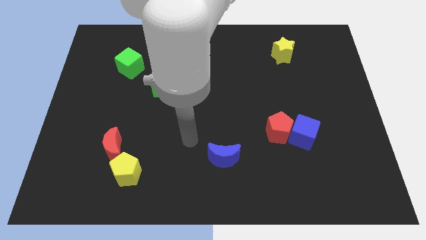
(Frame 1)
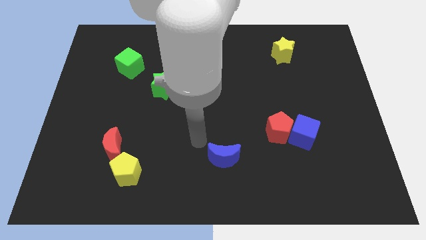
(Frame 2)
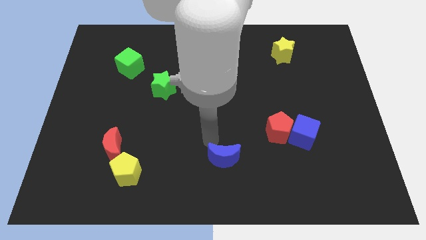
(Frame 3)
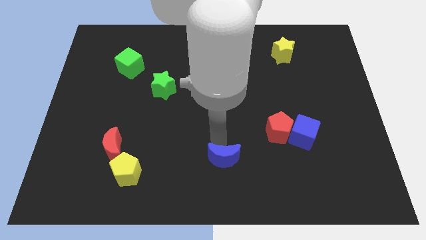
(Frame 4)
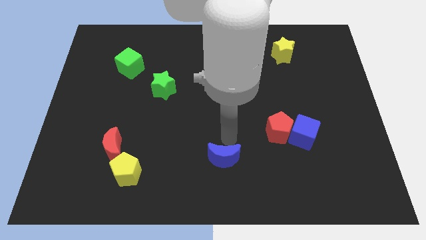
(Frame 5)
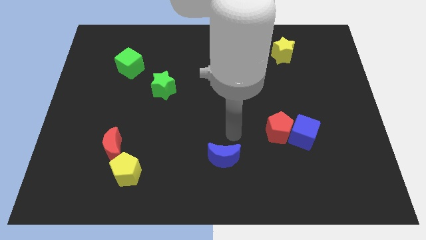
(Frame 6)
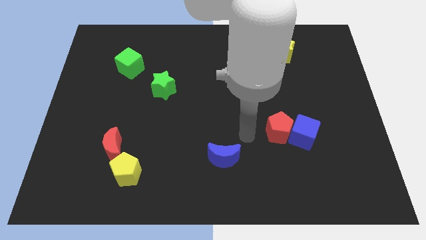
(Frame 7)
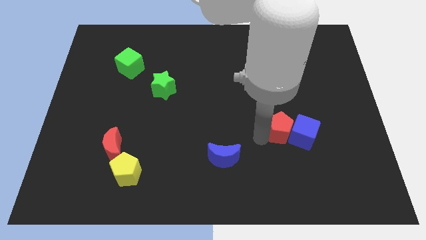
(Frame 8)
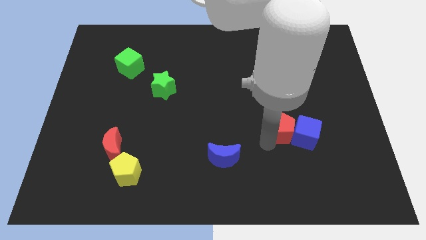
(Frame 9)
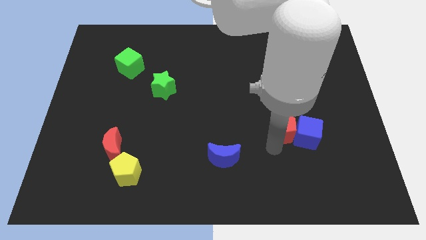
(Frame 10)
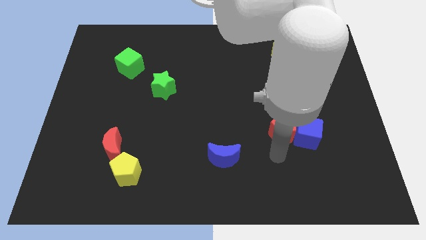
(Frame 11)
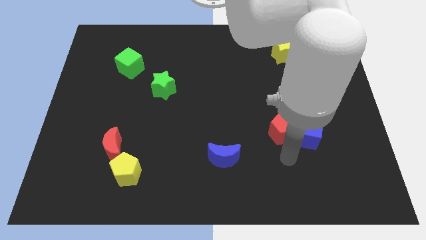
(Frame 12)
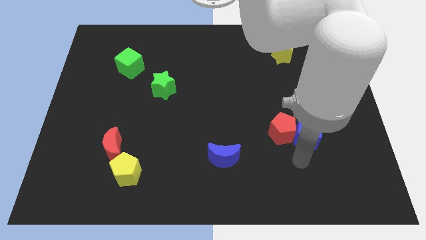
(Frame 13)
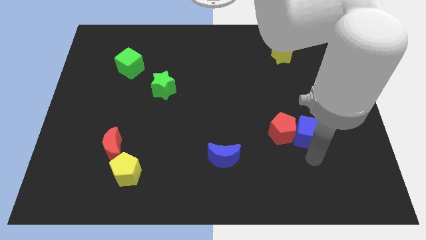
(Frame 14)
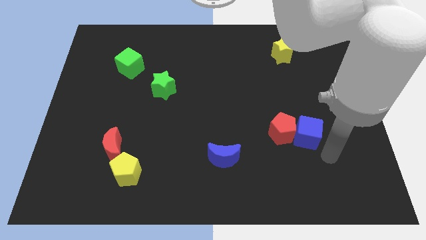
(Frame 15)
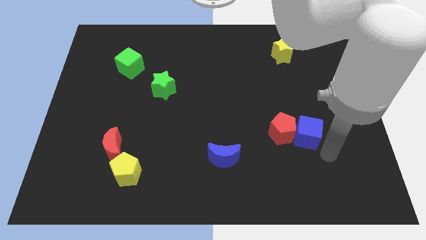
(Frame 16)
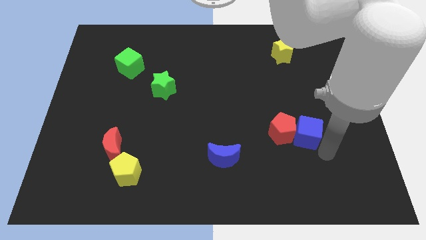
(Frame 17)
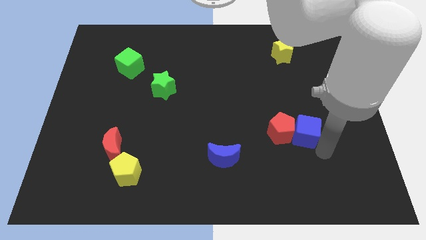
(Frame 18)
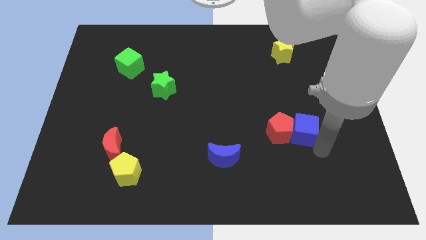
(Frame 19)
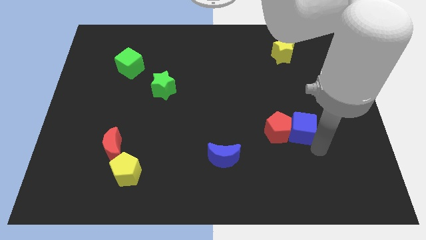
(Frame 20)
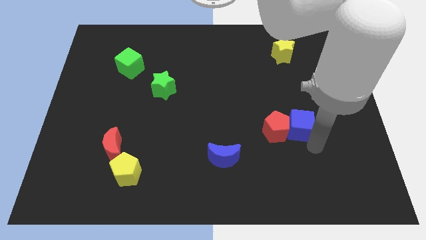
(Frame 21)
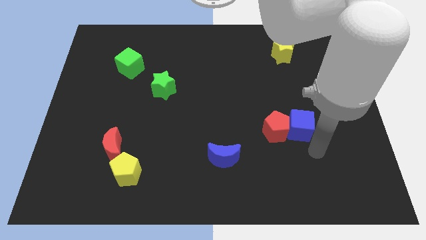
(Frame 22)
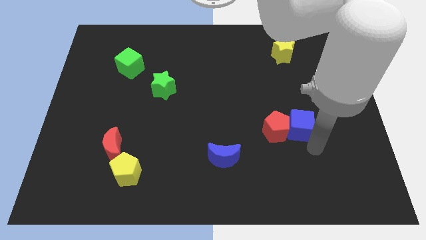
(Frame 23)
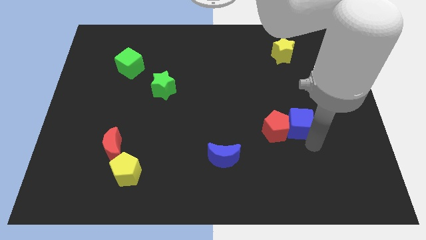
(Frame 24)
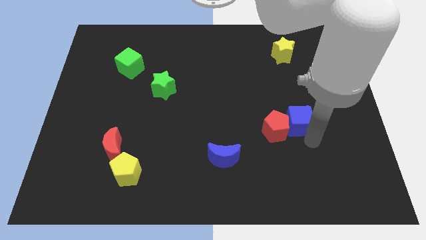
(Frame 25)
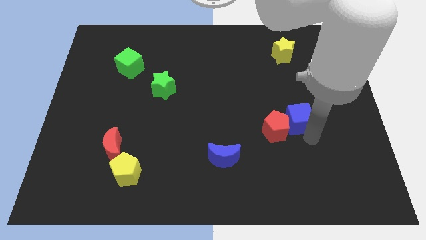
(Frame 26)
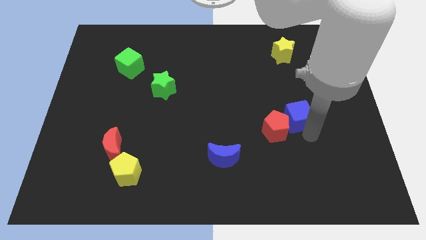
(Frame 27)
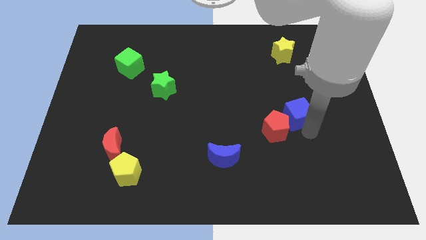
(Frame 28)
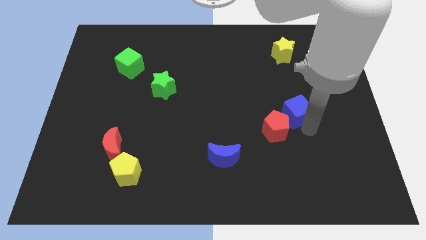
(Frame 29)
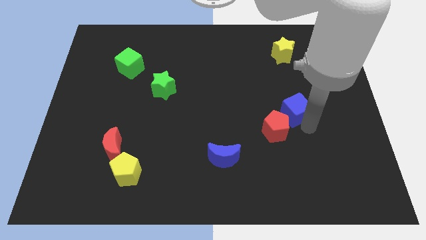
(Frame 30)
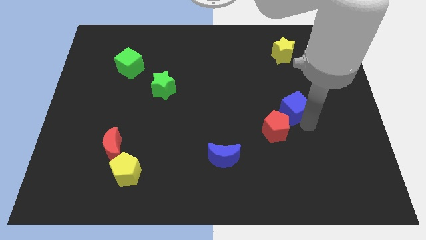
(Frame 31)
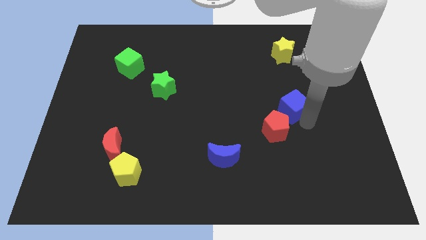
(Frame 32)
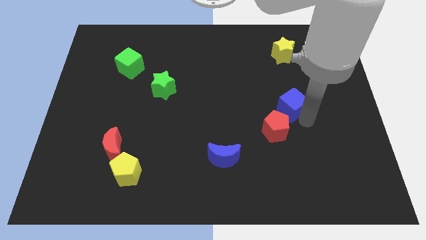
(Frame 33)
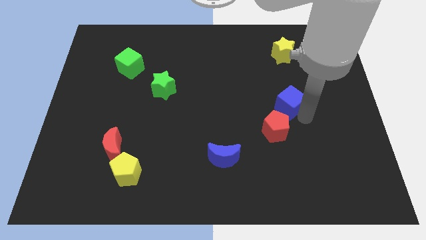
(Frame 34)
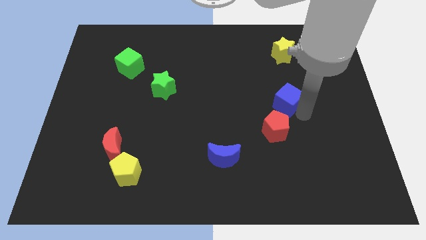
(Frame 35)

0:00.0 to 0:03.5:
move the blue cube a little upwards and to the left

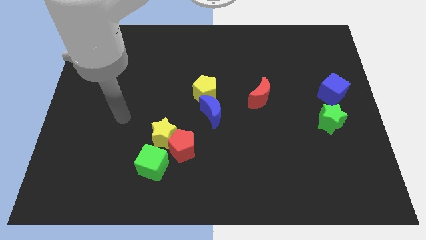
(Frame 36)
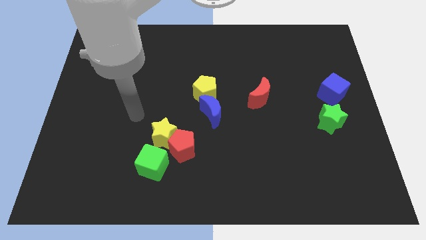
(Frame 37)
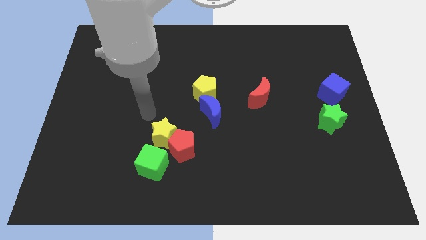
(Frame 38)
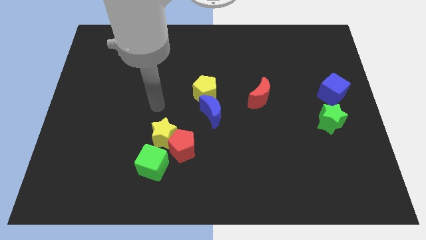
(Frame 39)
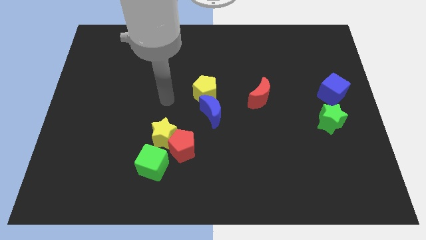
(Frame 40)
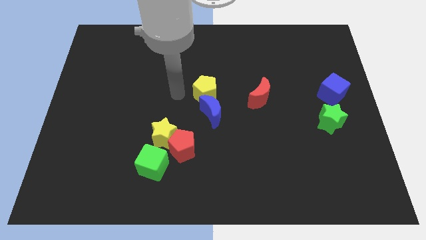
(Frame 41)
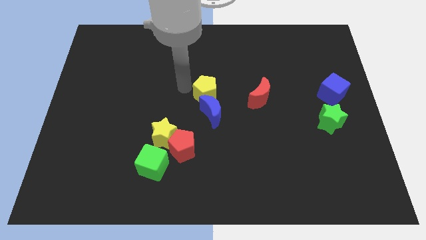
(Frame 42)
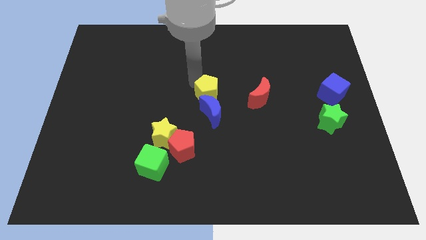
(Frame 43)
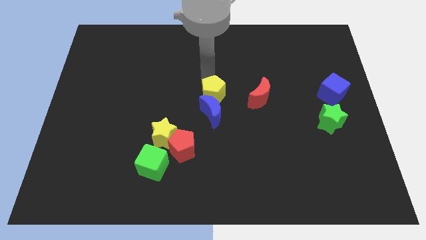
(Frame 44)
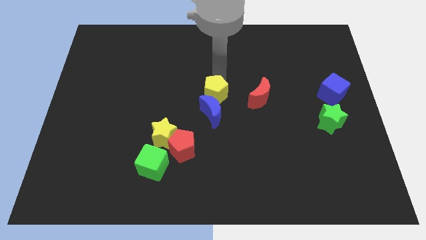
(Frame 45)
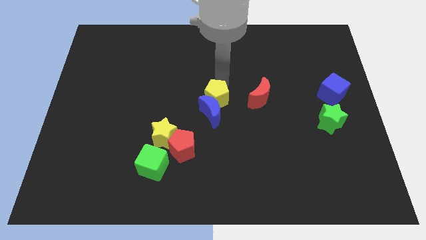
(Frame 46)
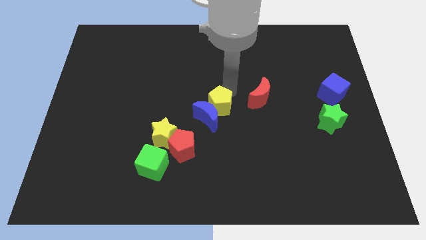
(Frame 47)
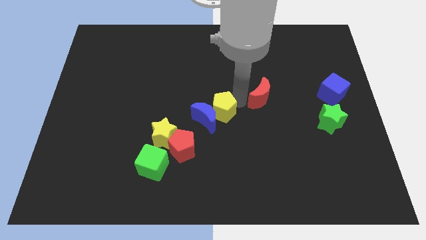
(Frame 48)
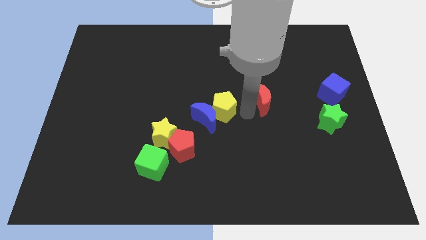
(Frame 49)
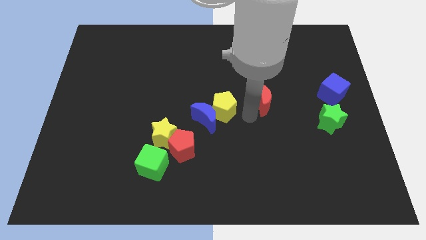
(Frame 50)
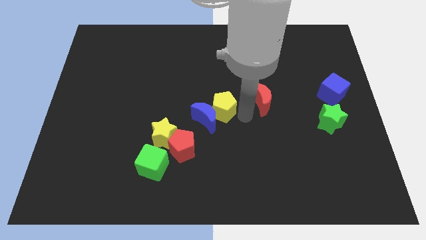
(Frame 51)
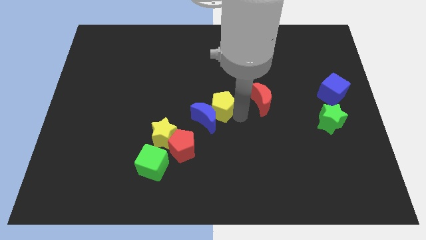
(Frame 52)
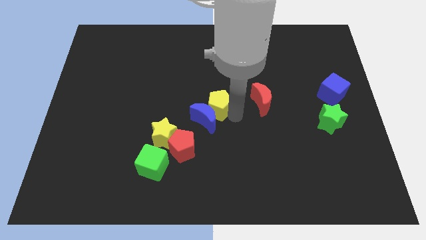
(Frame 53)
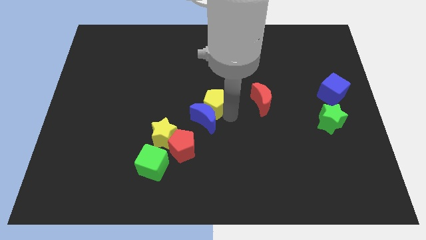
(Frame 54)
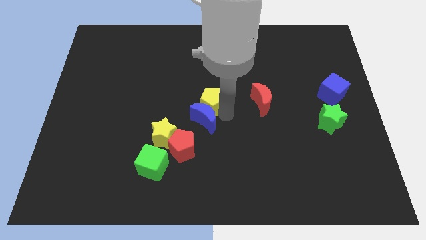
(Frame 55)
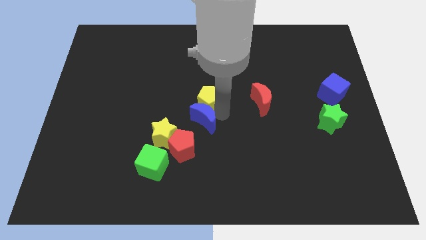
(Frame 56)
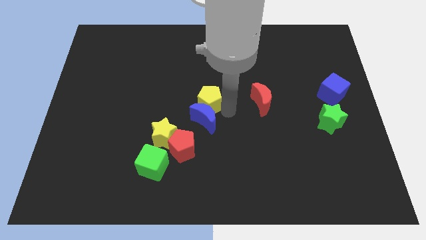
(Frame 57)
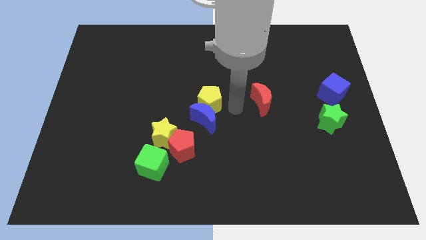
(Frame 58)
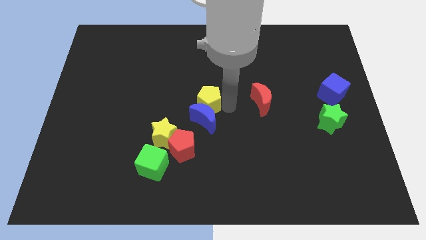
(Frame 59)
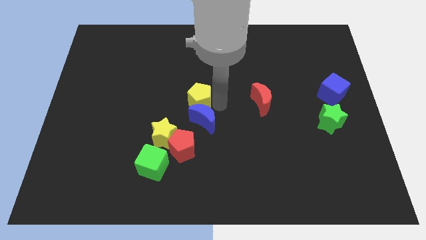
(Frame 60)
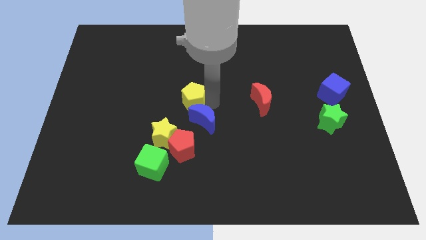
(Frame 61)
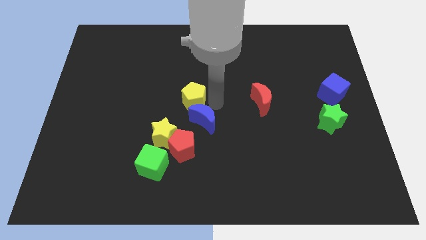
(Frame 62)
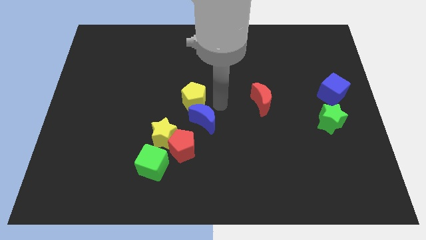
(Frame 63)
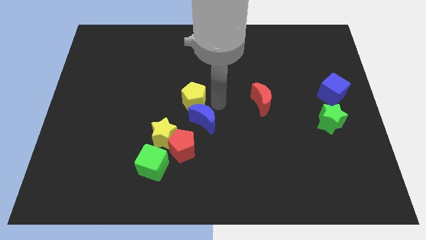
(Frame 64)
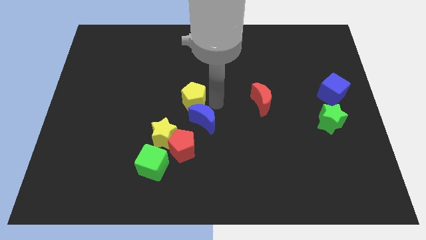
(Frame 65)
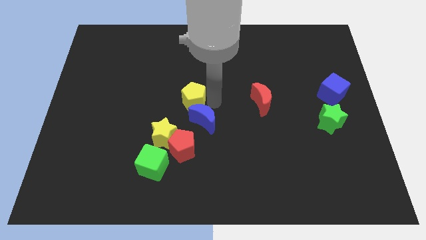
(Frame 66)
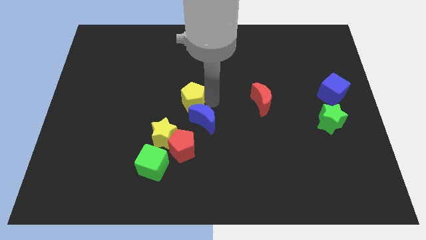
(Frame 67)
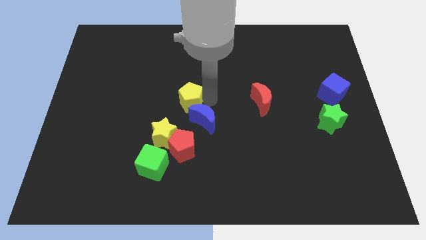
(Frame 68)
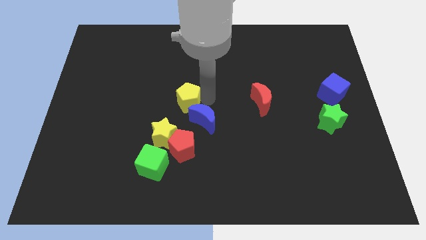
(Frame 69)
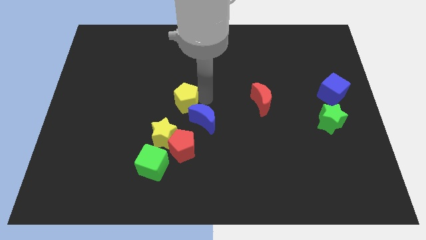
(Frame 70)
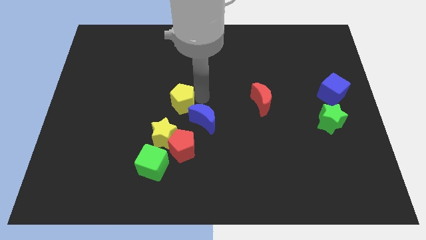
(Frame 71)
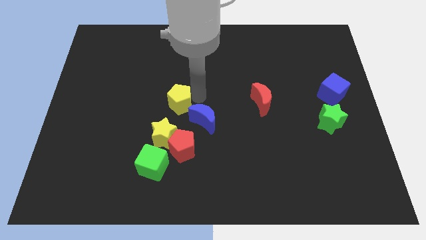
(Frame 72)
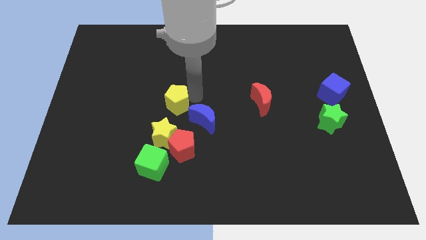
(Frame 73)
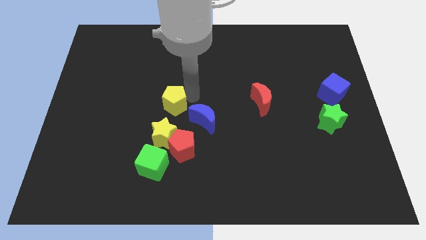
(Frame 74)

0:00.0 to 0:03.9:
push the yellow pentagon to the left a bit

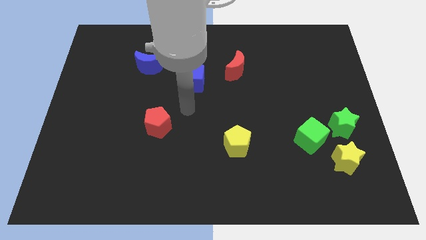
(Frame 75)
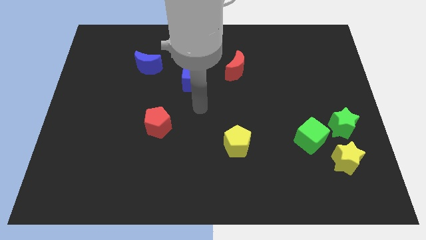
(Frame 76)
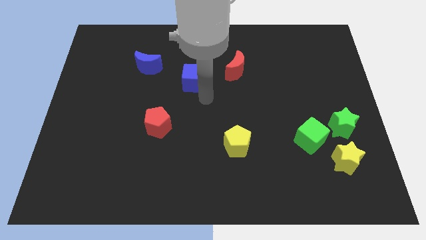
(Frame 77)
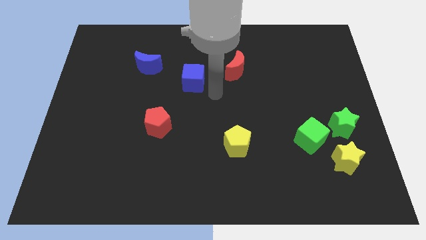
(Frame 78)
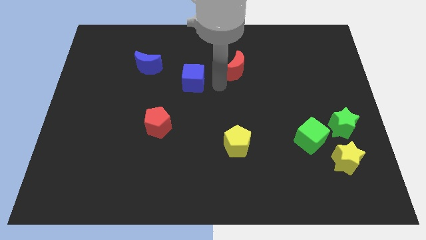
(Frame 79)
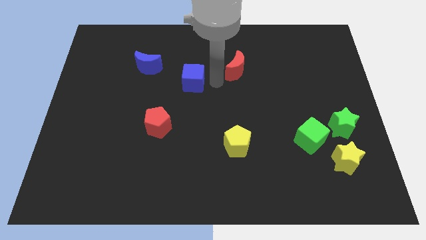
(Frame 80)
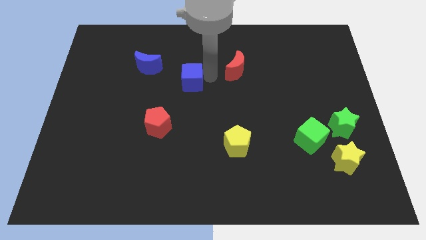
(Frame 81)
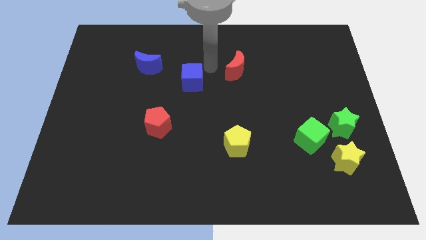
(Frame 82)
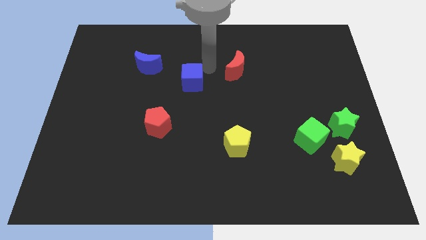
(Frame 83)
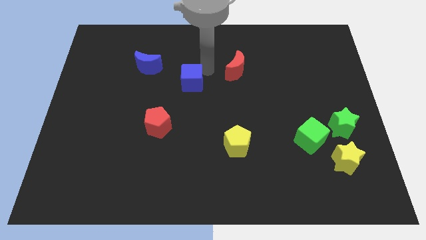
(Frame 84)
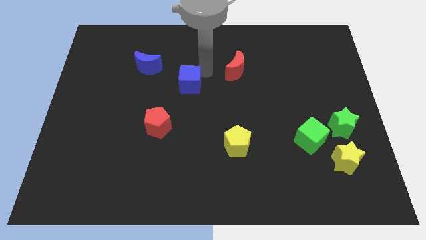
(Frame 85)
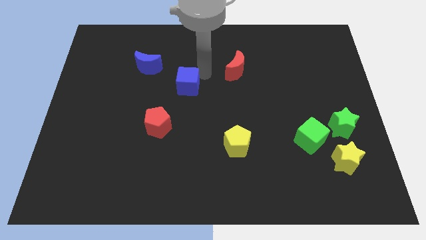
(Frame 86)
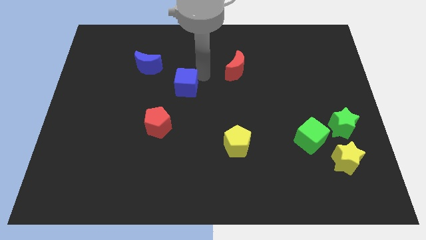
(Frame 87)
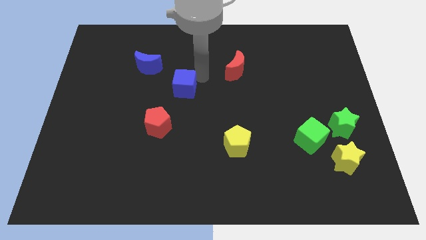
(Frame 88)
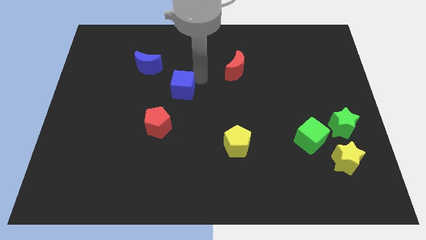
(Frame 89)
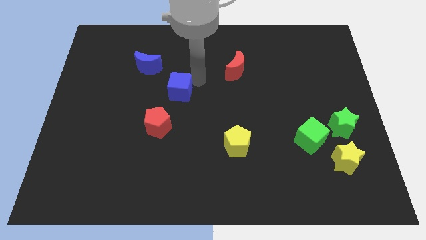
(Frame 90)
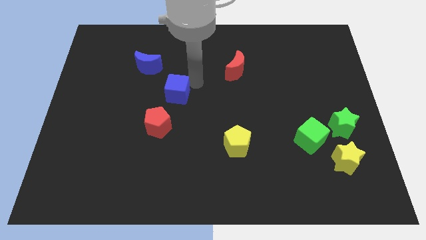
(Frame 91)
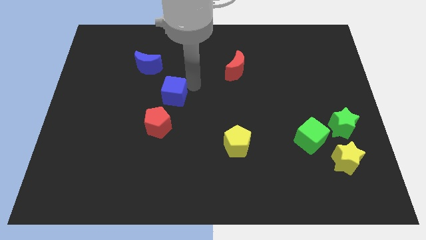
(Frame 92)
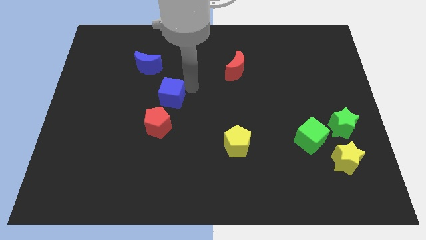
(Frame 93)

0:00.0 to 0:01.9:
move the blue cube a little downwards and left diagonally
